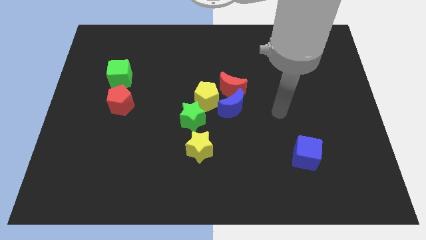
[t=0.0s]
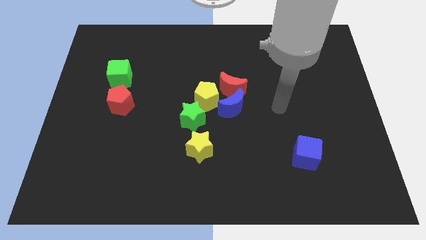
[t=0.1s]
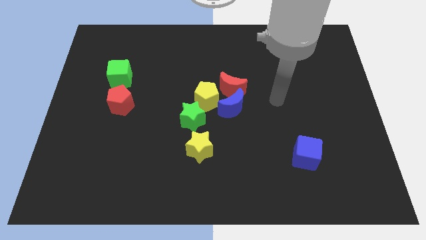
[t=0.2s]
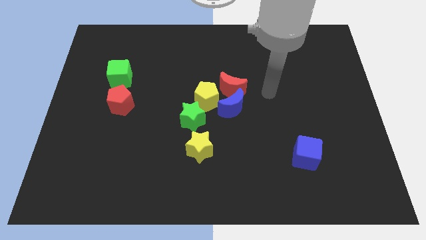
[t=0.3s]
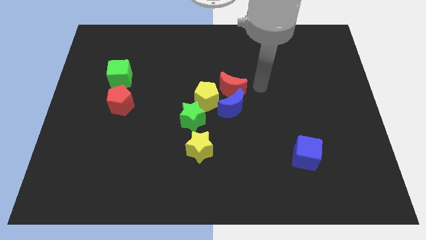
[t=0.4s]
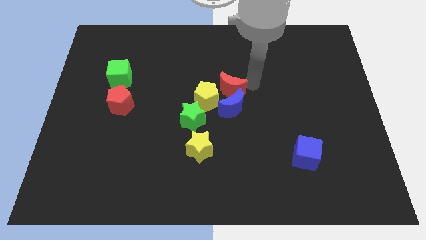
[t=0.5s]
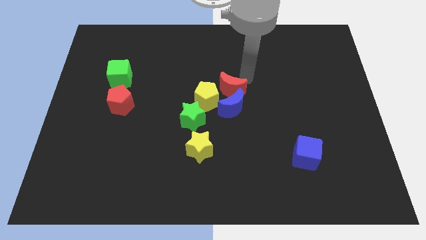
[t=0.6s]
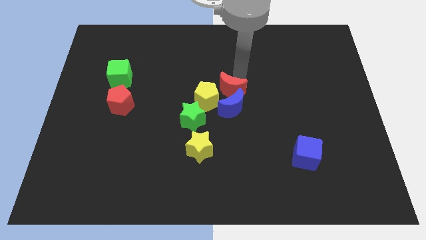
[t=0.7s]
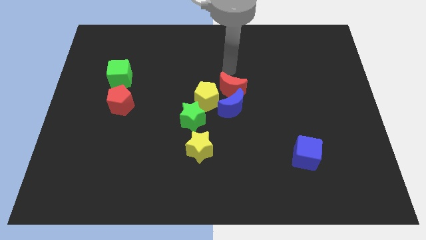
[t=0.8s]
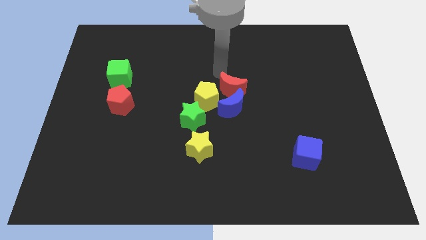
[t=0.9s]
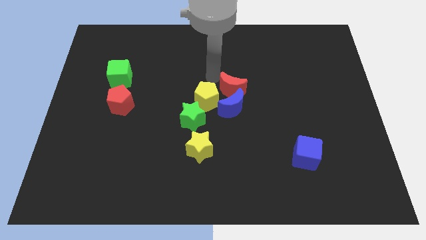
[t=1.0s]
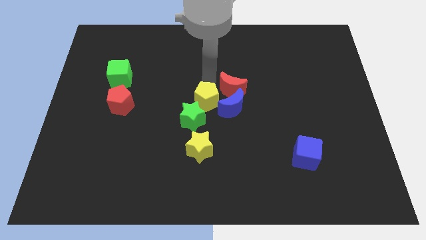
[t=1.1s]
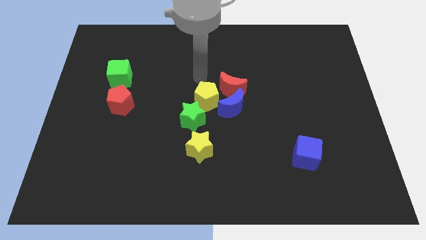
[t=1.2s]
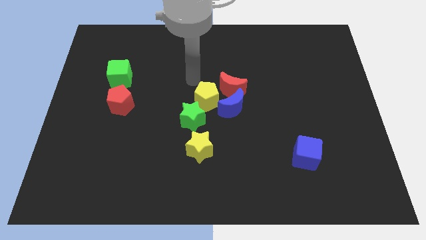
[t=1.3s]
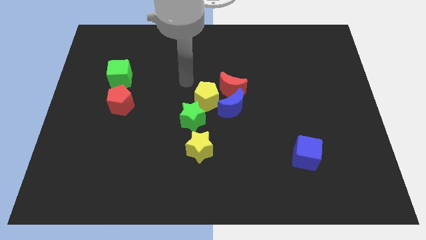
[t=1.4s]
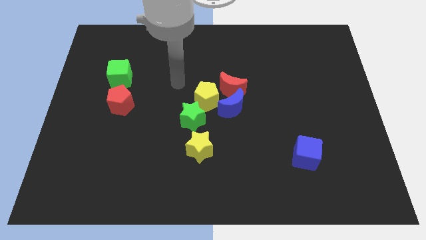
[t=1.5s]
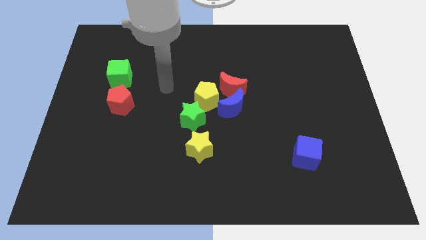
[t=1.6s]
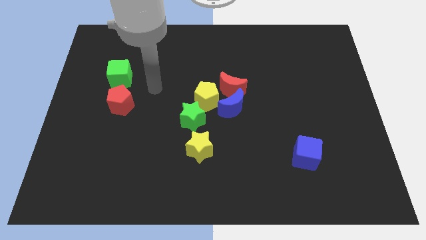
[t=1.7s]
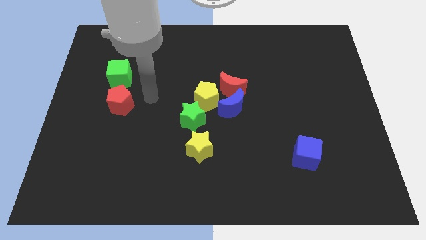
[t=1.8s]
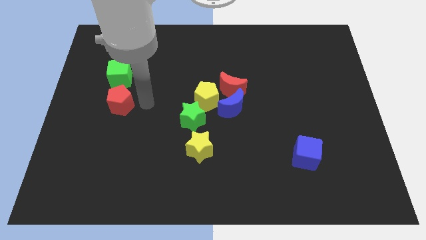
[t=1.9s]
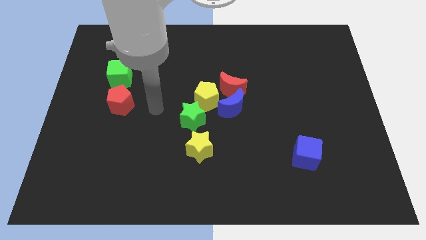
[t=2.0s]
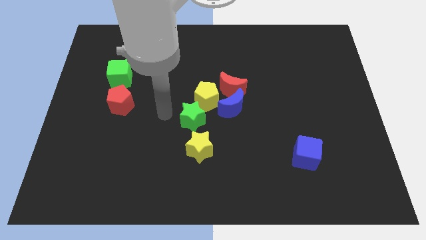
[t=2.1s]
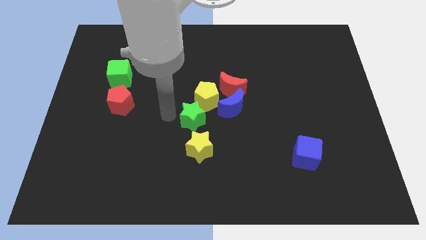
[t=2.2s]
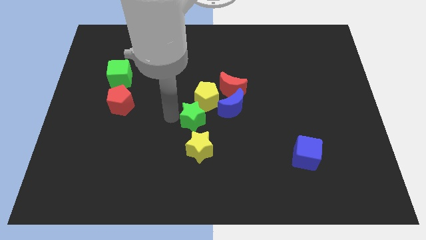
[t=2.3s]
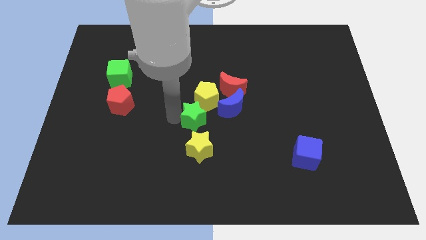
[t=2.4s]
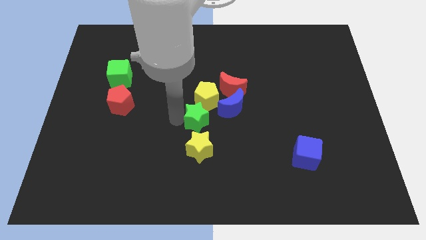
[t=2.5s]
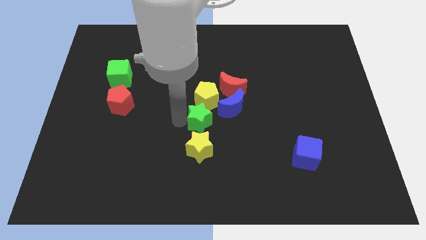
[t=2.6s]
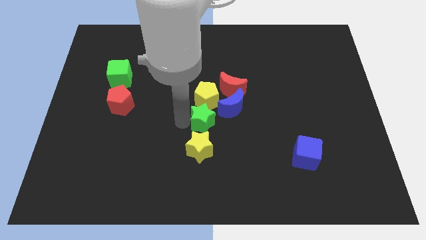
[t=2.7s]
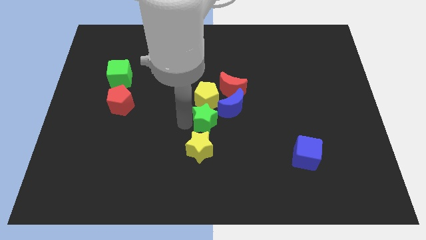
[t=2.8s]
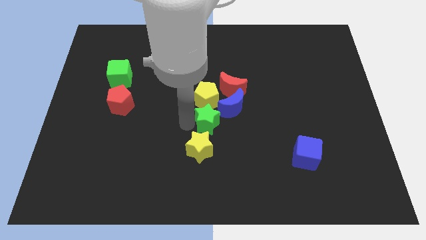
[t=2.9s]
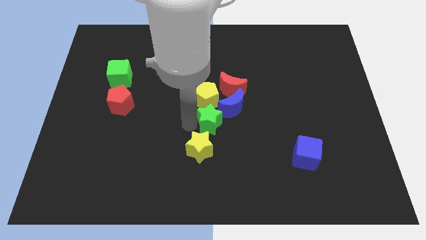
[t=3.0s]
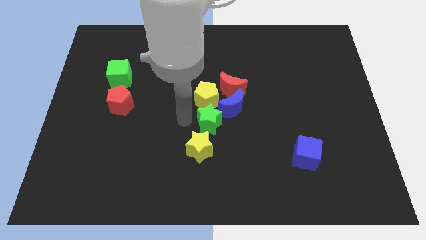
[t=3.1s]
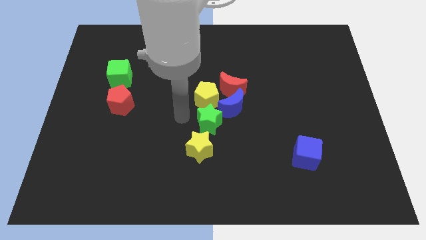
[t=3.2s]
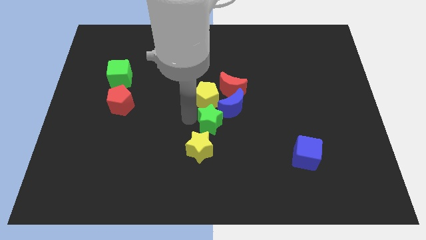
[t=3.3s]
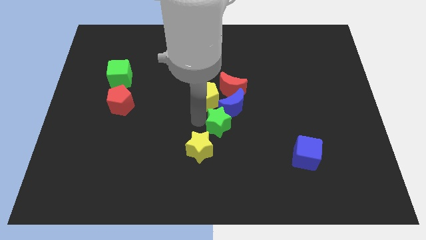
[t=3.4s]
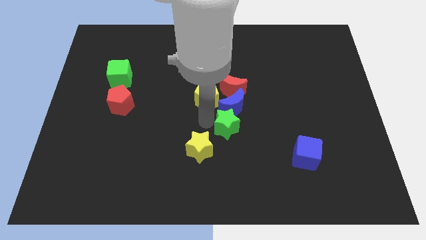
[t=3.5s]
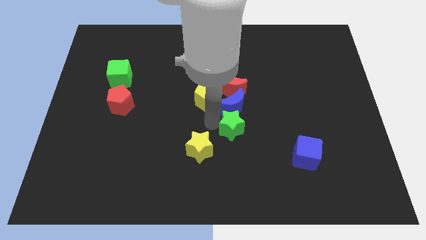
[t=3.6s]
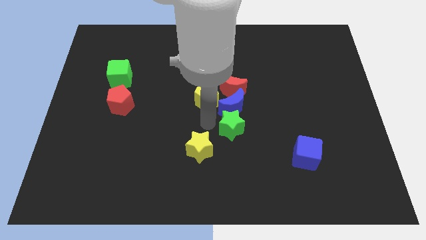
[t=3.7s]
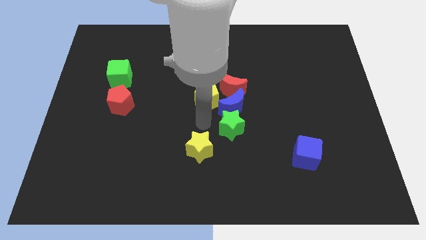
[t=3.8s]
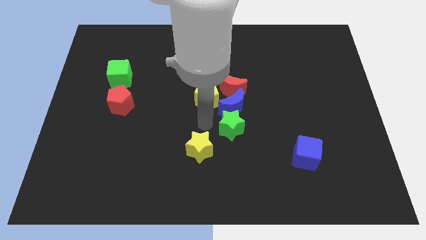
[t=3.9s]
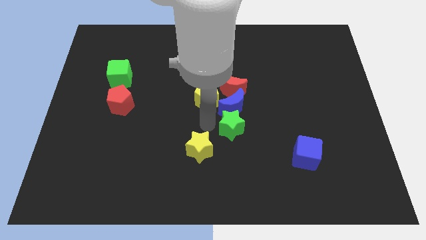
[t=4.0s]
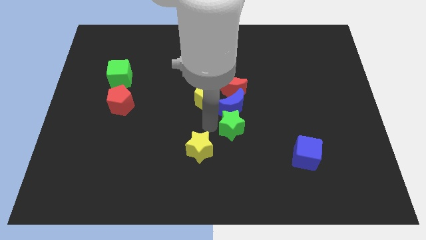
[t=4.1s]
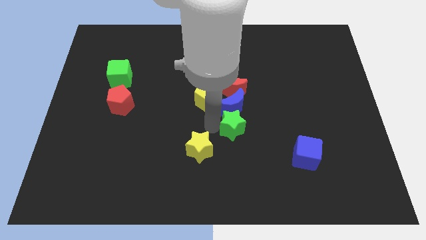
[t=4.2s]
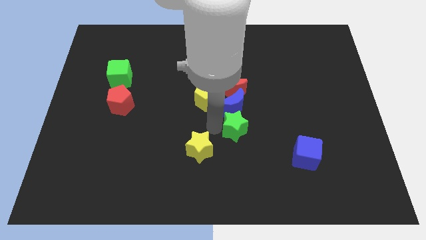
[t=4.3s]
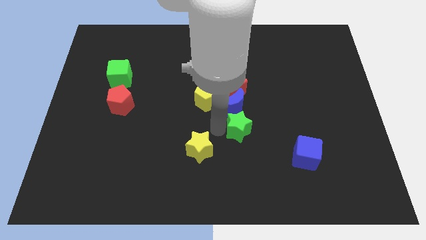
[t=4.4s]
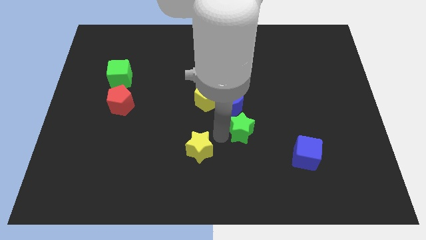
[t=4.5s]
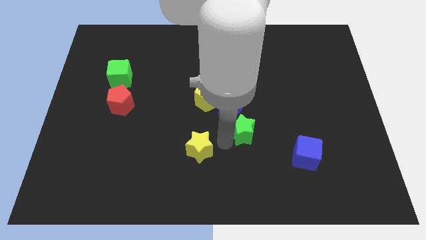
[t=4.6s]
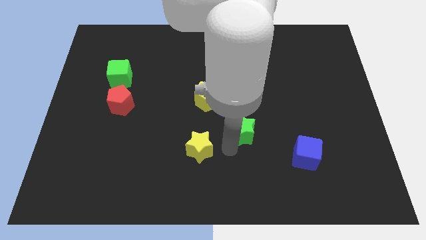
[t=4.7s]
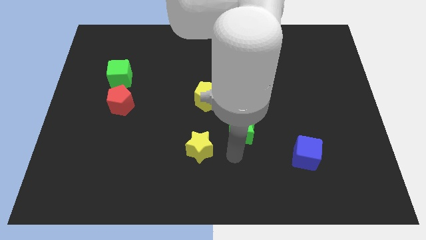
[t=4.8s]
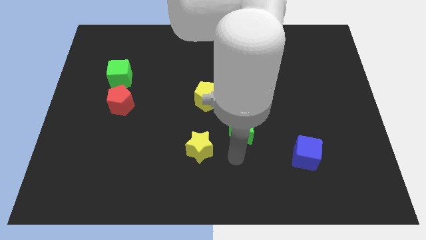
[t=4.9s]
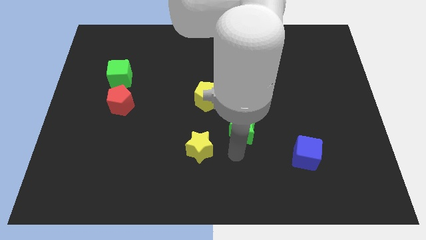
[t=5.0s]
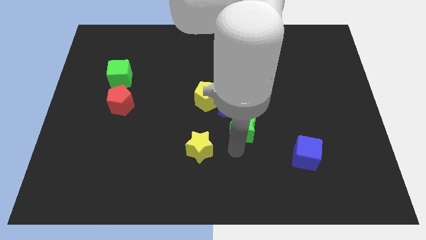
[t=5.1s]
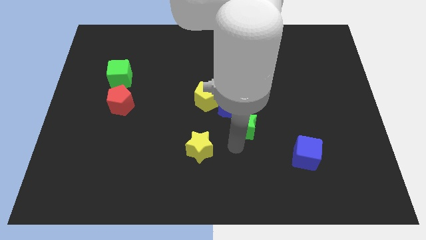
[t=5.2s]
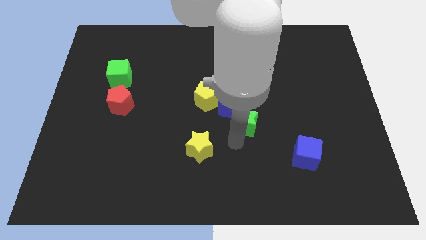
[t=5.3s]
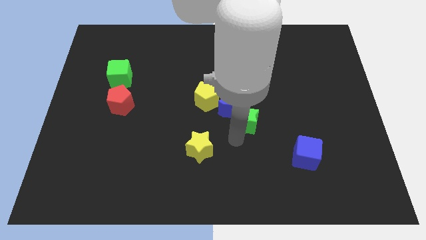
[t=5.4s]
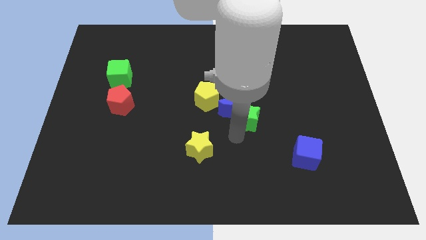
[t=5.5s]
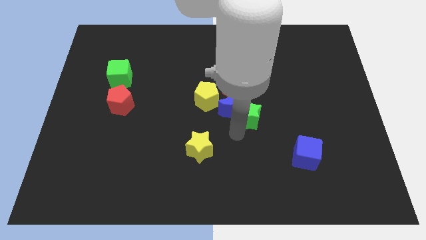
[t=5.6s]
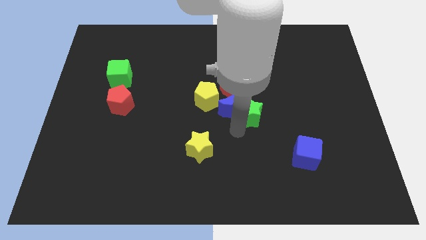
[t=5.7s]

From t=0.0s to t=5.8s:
put the green star right of the yellow pentagon

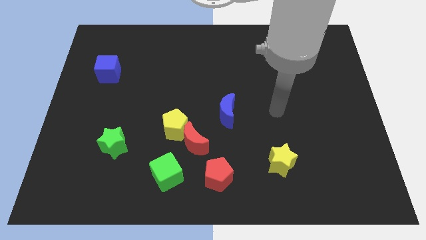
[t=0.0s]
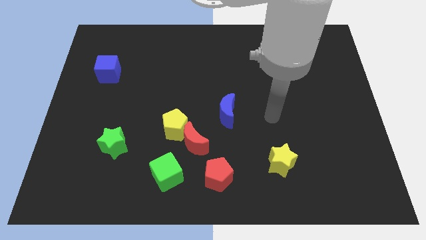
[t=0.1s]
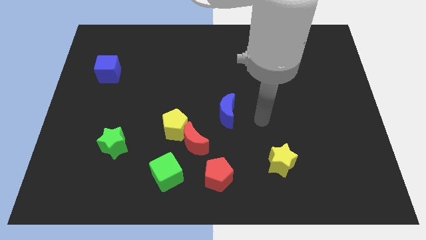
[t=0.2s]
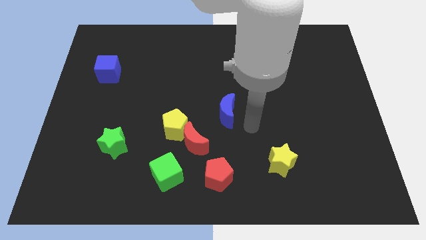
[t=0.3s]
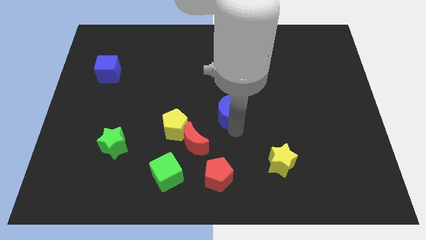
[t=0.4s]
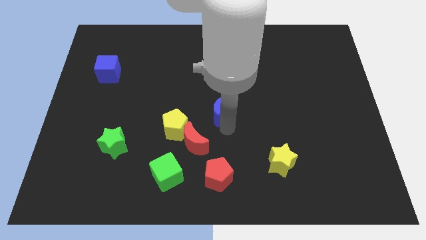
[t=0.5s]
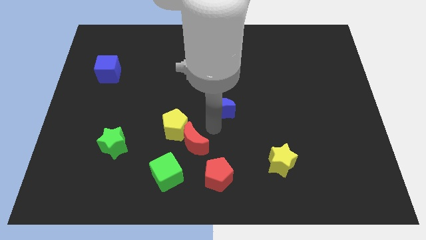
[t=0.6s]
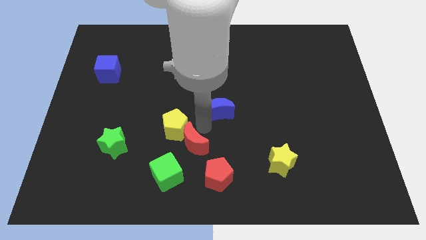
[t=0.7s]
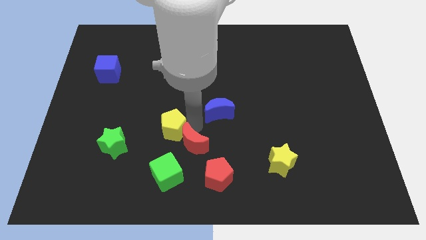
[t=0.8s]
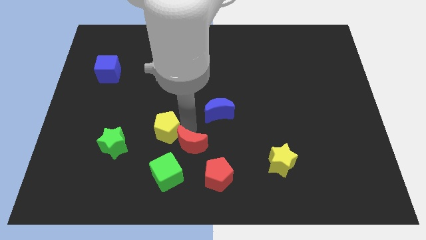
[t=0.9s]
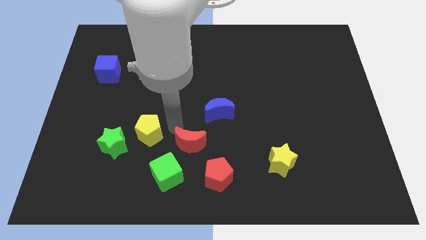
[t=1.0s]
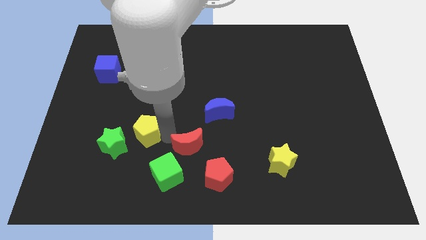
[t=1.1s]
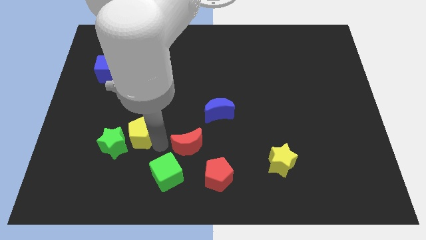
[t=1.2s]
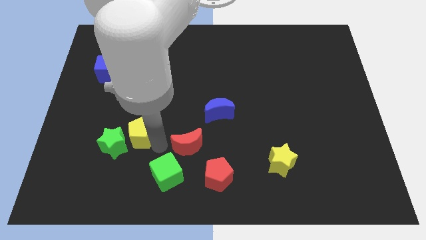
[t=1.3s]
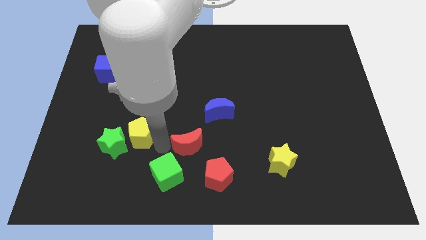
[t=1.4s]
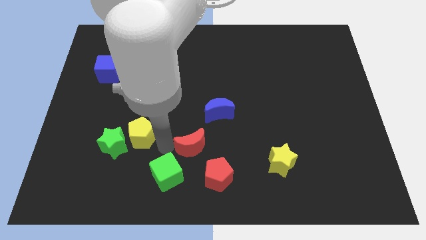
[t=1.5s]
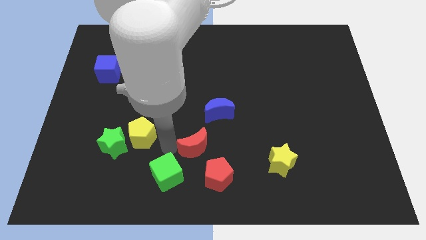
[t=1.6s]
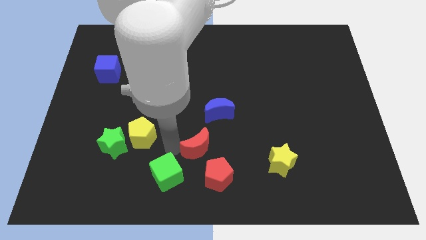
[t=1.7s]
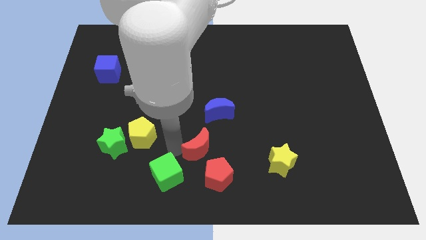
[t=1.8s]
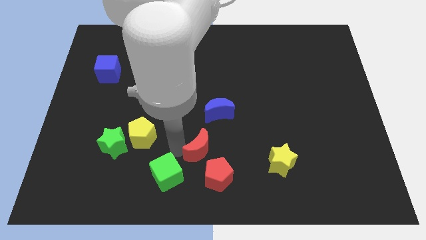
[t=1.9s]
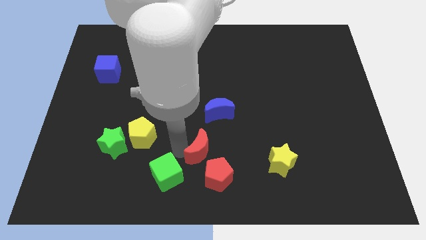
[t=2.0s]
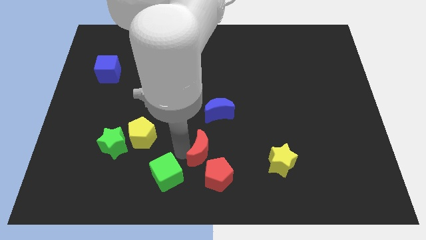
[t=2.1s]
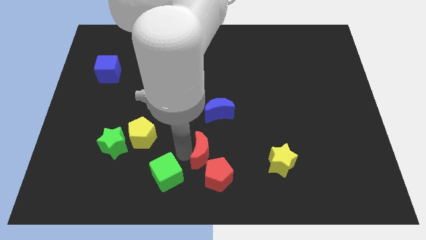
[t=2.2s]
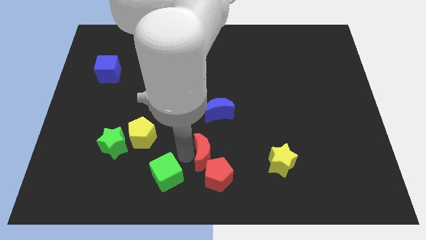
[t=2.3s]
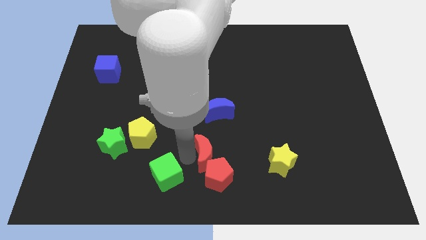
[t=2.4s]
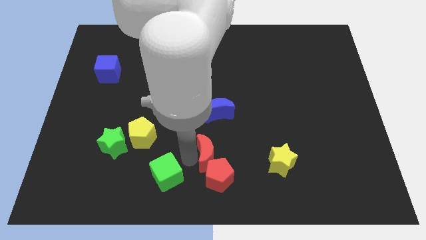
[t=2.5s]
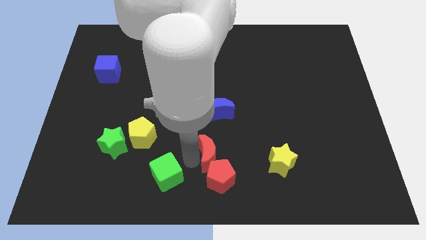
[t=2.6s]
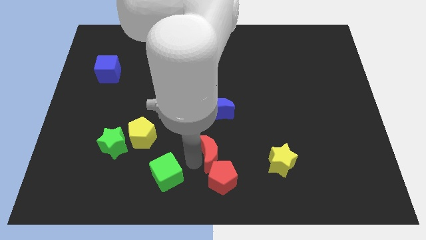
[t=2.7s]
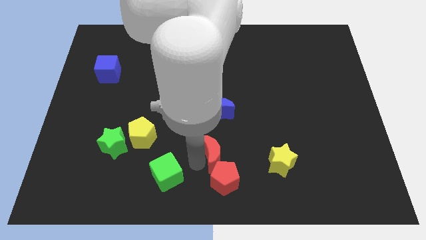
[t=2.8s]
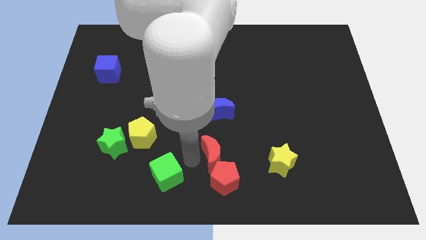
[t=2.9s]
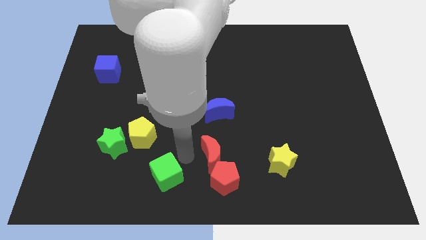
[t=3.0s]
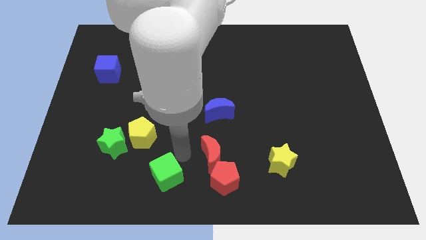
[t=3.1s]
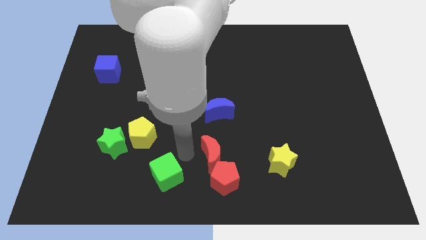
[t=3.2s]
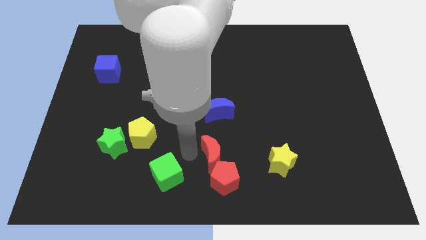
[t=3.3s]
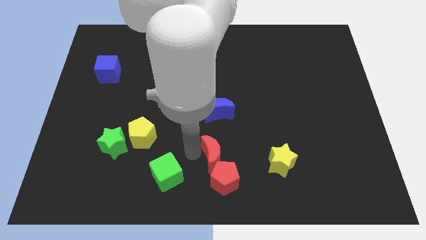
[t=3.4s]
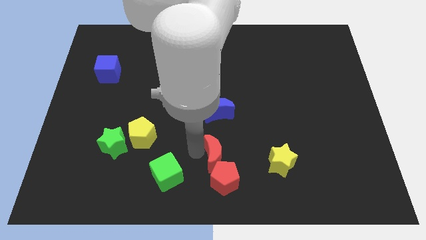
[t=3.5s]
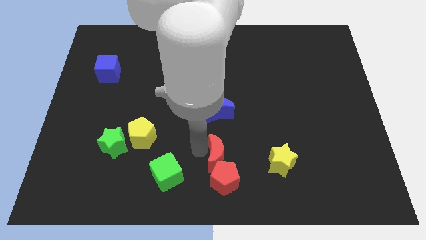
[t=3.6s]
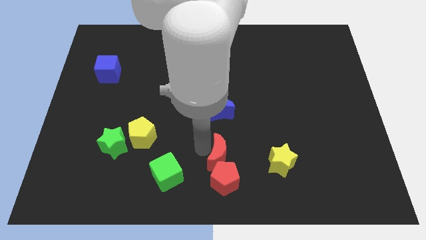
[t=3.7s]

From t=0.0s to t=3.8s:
put the red moon diagonally up and to the right of the red pentagon
